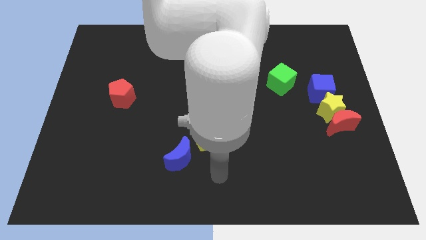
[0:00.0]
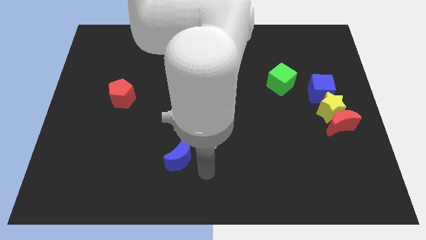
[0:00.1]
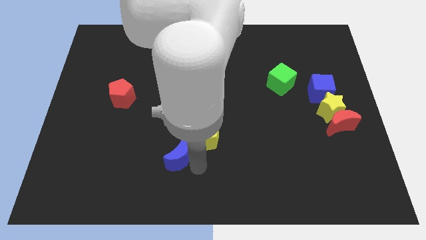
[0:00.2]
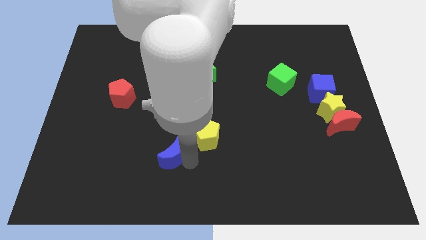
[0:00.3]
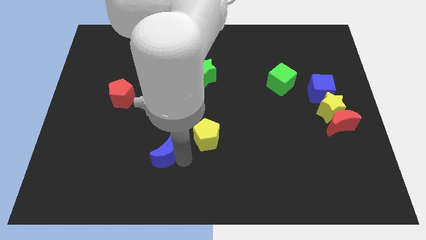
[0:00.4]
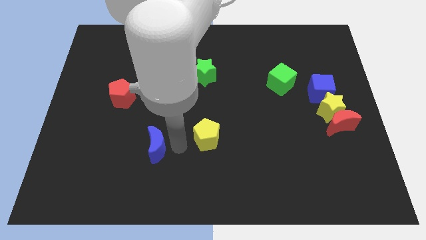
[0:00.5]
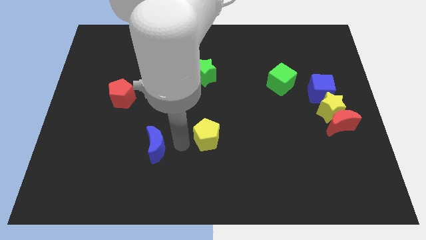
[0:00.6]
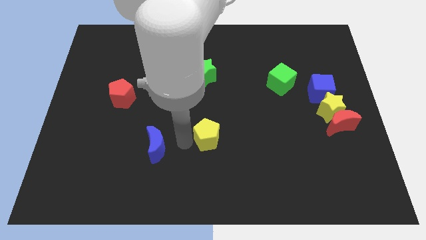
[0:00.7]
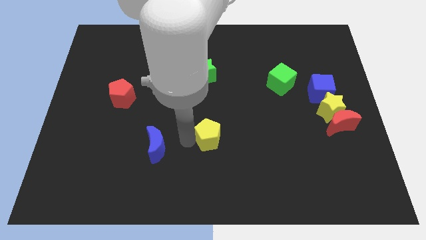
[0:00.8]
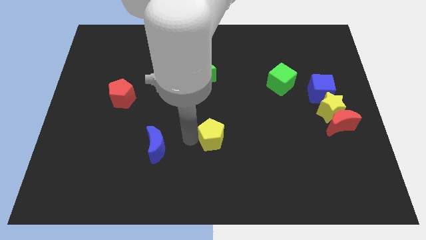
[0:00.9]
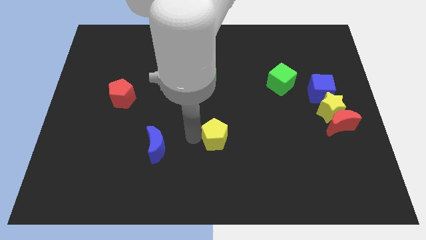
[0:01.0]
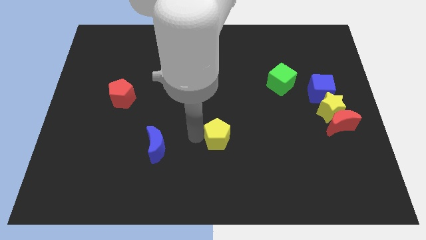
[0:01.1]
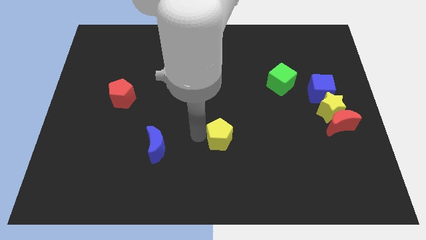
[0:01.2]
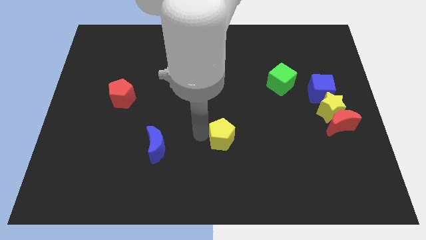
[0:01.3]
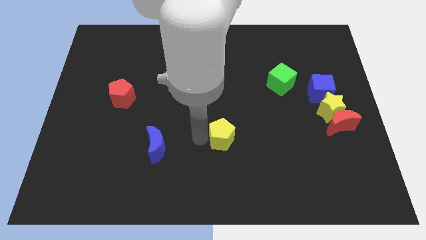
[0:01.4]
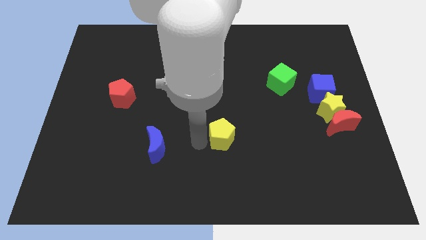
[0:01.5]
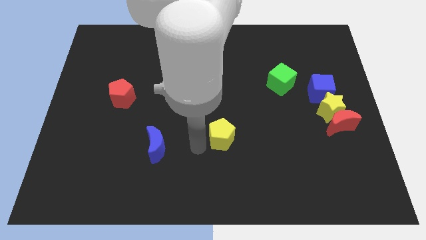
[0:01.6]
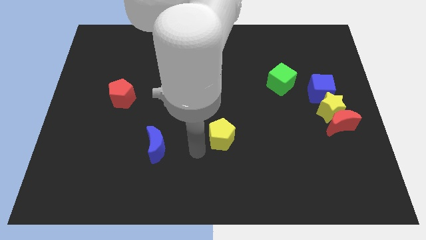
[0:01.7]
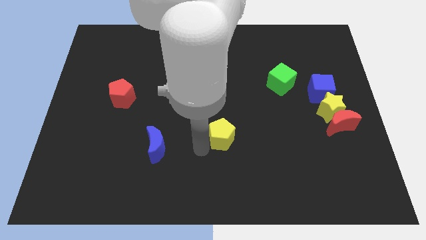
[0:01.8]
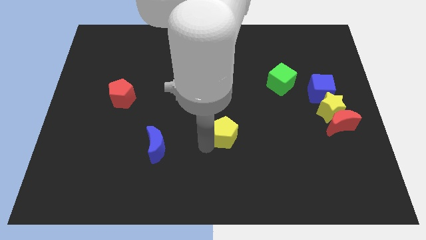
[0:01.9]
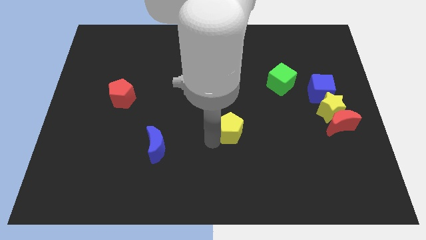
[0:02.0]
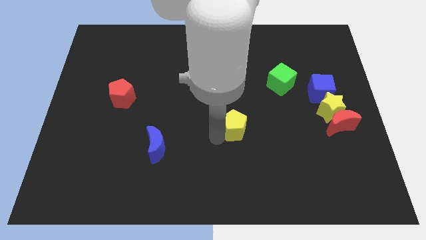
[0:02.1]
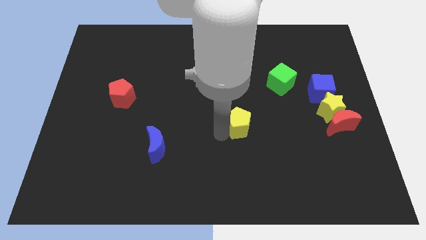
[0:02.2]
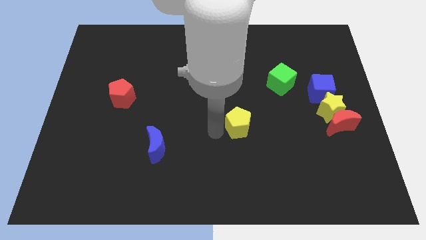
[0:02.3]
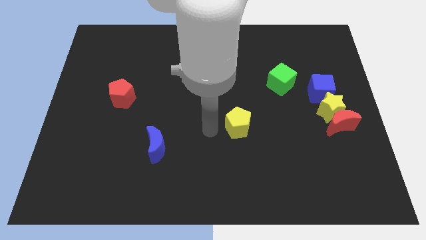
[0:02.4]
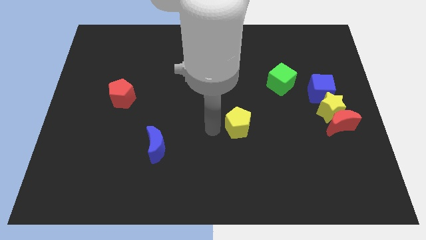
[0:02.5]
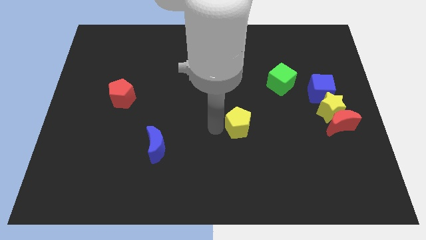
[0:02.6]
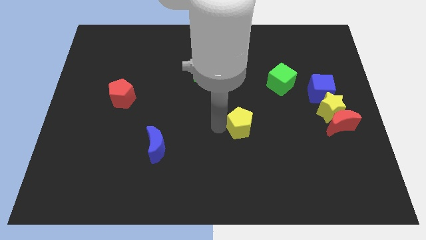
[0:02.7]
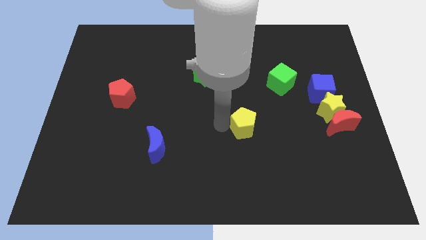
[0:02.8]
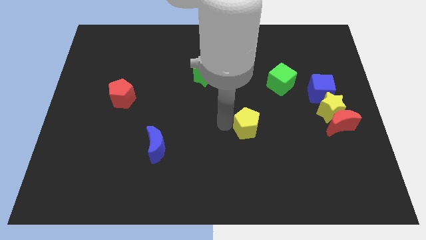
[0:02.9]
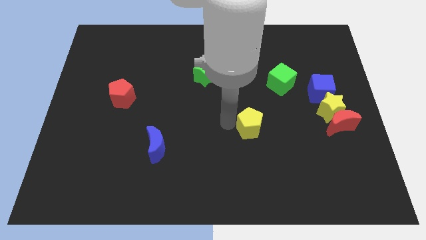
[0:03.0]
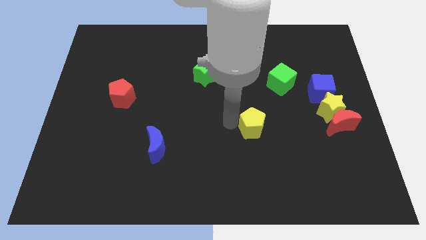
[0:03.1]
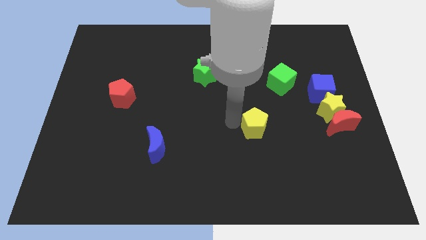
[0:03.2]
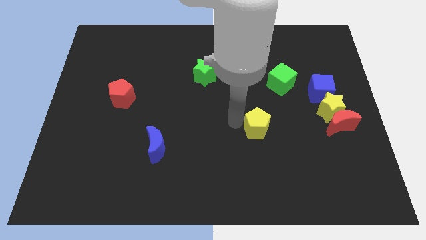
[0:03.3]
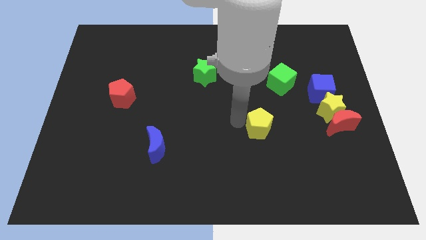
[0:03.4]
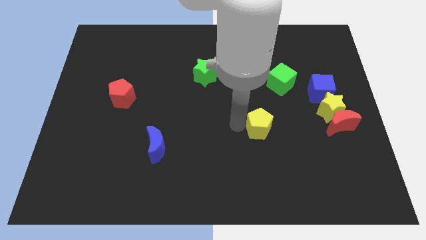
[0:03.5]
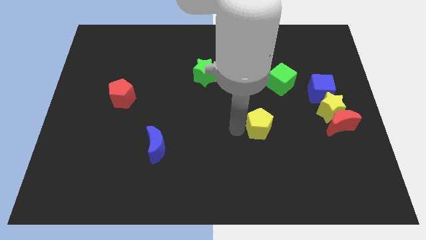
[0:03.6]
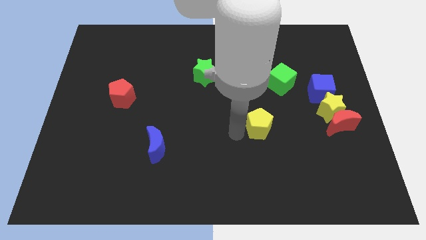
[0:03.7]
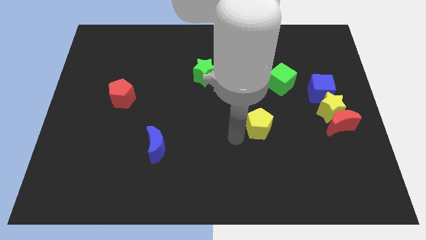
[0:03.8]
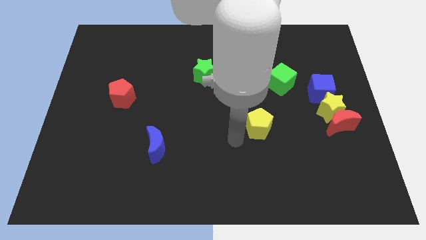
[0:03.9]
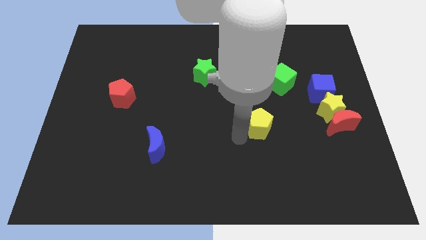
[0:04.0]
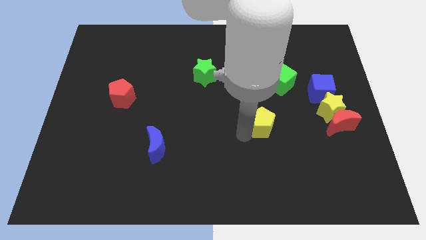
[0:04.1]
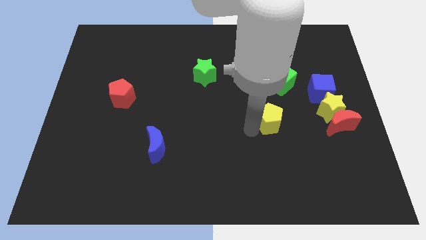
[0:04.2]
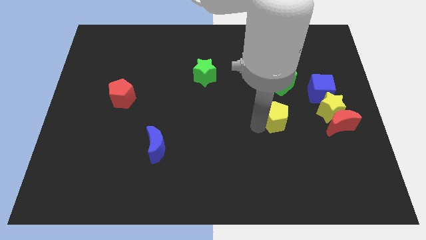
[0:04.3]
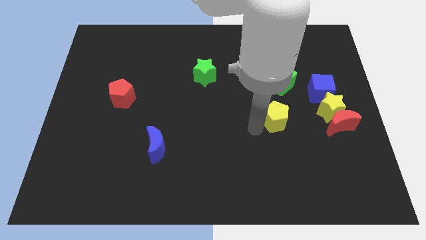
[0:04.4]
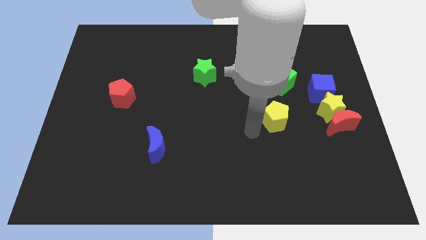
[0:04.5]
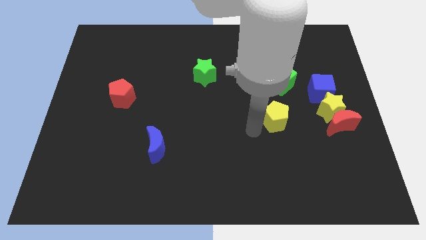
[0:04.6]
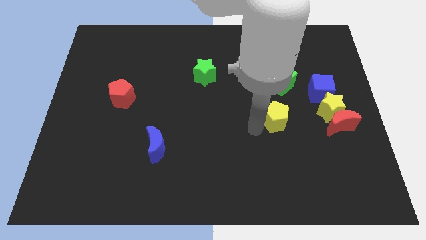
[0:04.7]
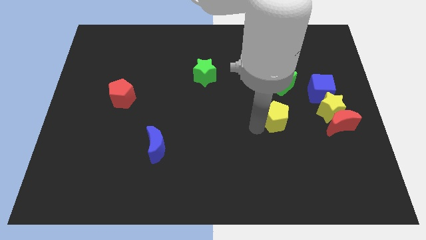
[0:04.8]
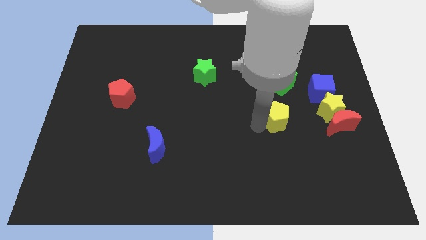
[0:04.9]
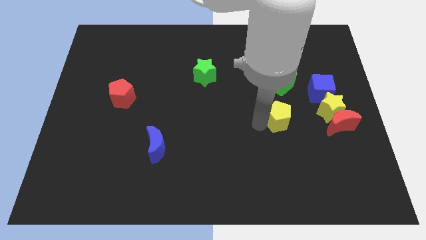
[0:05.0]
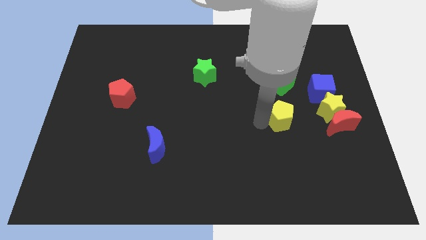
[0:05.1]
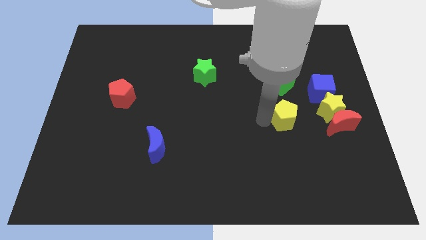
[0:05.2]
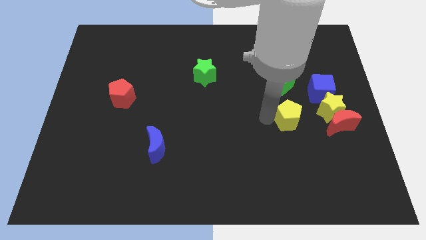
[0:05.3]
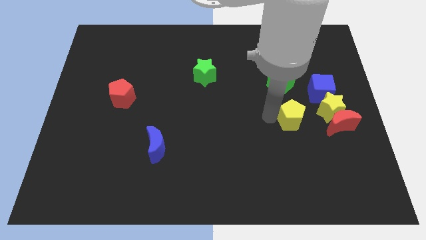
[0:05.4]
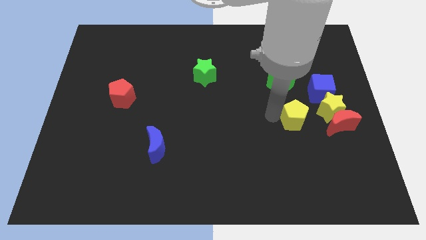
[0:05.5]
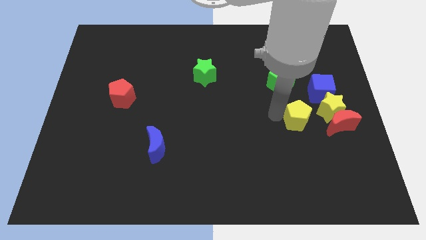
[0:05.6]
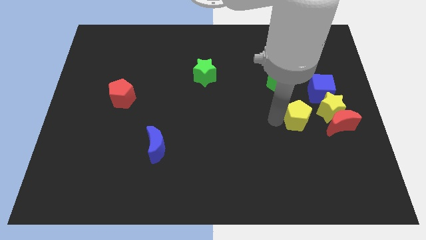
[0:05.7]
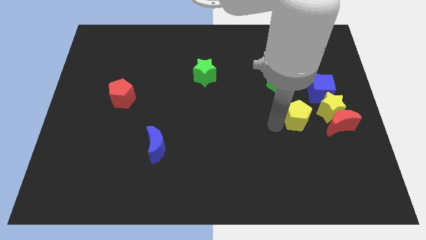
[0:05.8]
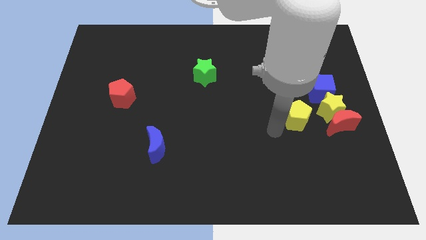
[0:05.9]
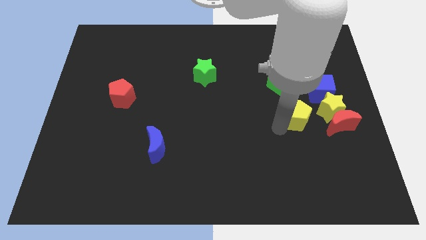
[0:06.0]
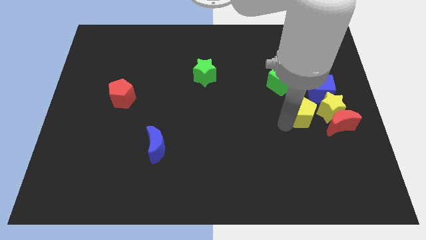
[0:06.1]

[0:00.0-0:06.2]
move the yellow pentagon to the top left side of the red moon

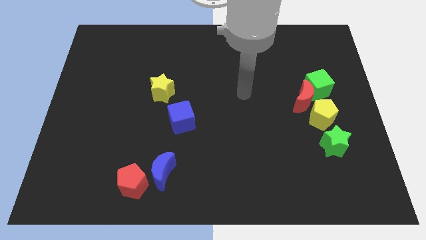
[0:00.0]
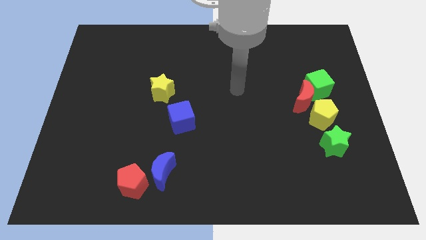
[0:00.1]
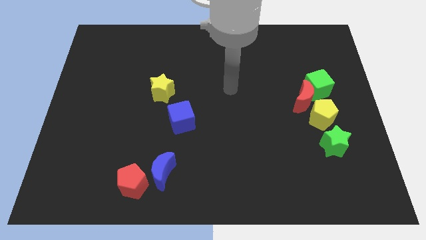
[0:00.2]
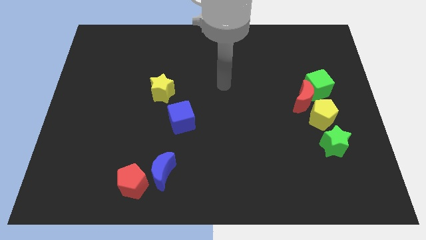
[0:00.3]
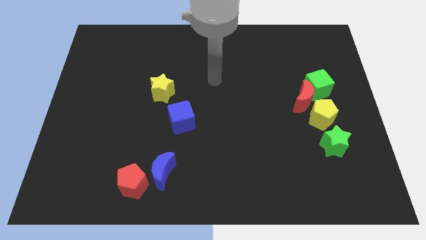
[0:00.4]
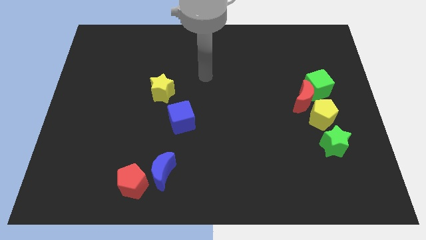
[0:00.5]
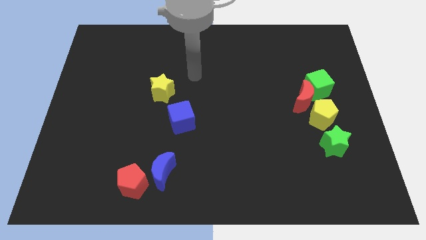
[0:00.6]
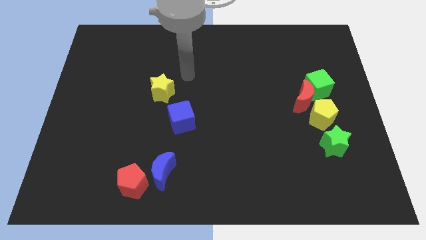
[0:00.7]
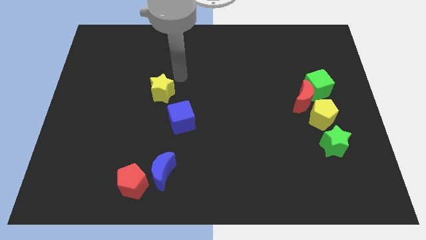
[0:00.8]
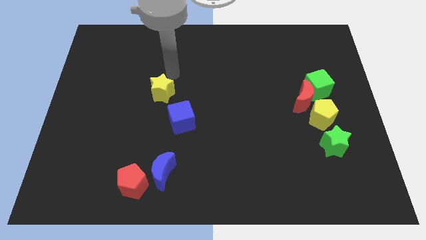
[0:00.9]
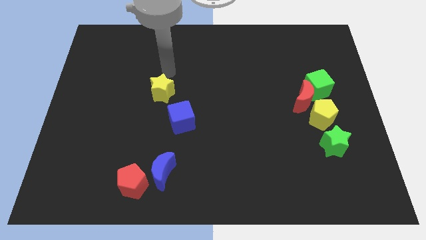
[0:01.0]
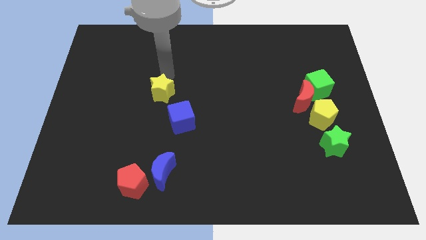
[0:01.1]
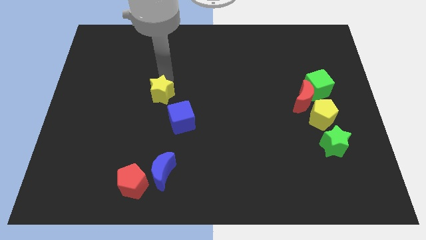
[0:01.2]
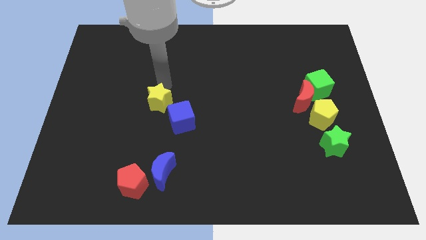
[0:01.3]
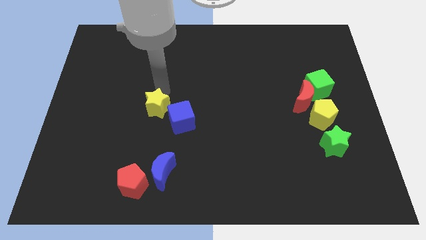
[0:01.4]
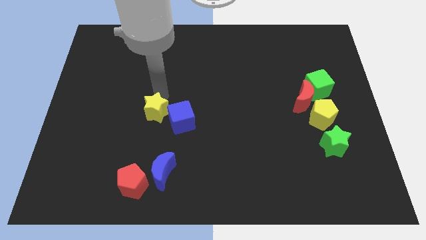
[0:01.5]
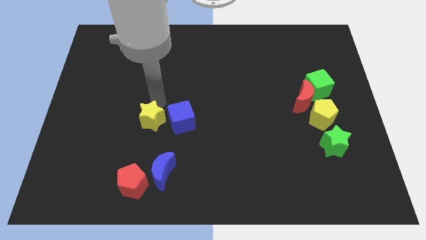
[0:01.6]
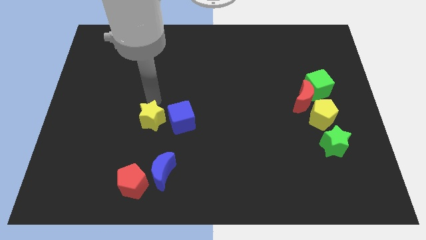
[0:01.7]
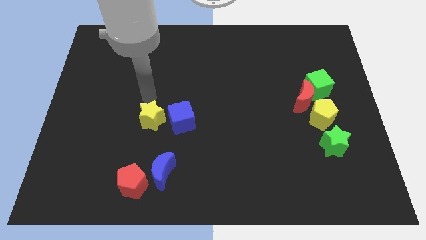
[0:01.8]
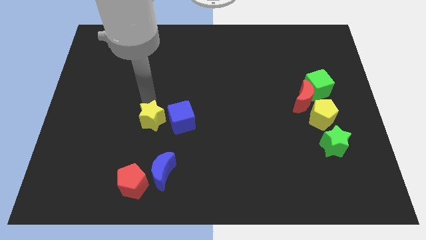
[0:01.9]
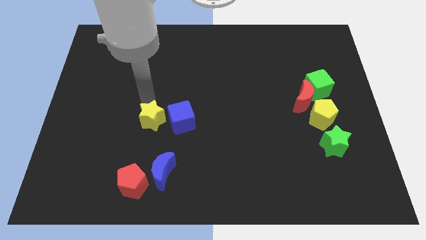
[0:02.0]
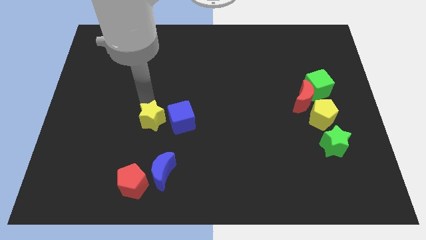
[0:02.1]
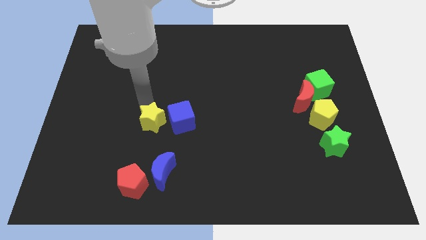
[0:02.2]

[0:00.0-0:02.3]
slide the yellow star to the bottom left of the blue cube
